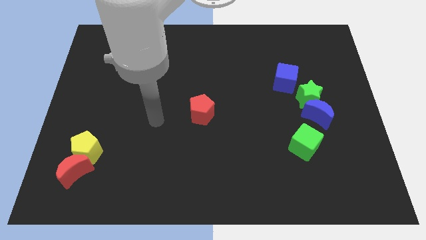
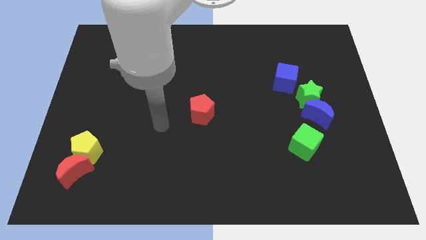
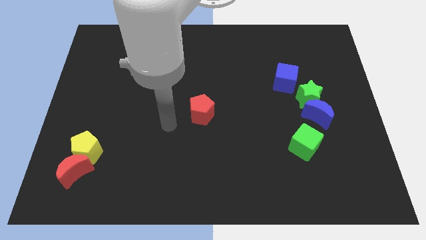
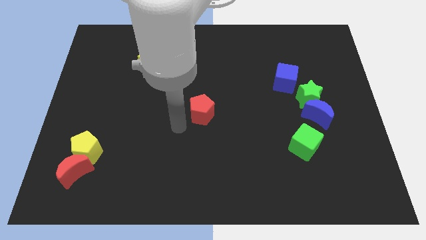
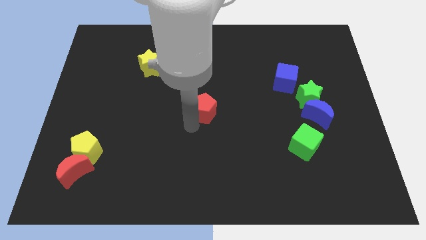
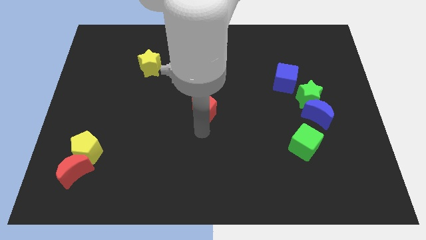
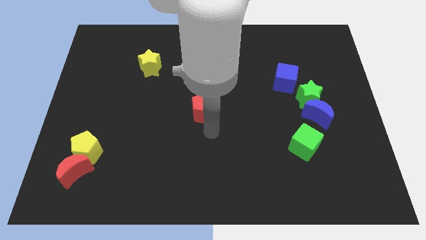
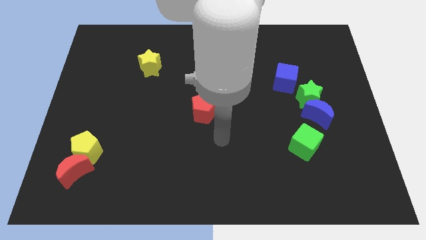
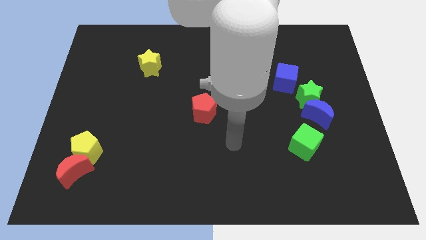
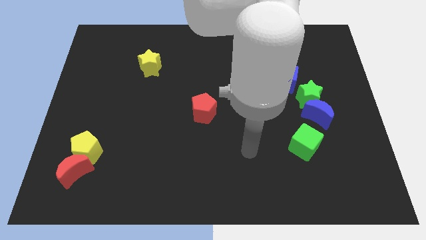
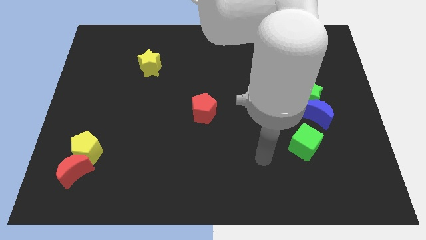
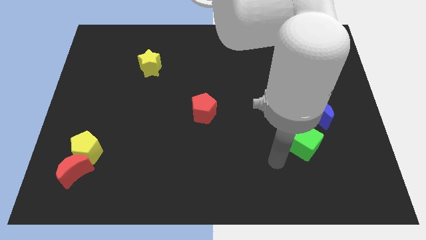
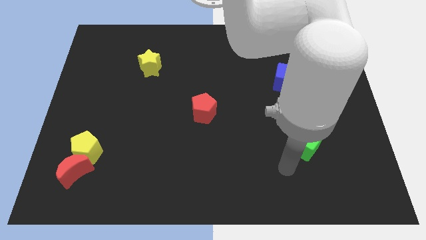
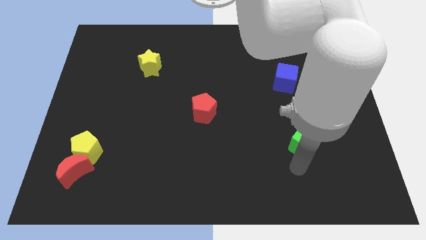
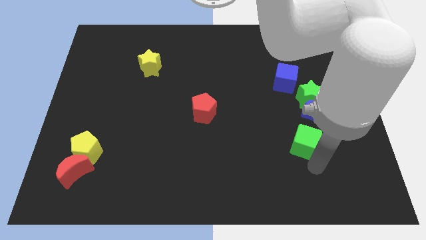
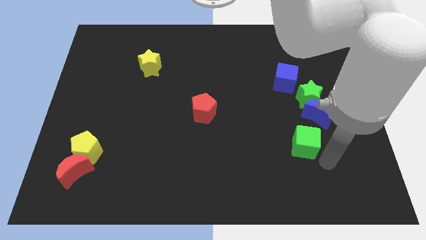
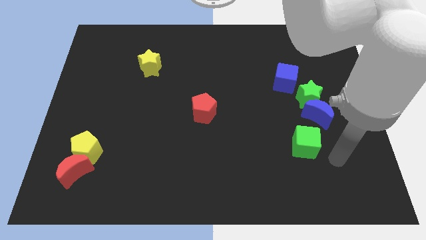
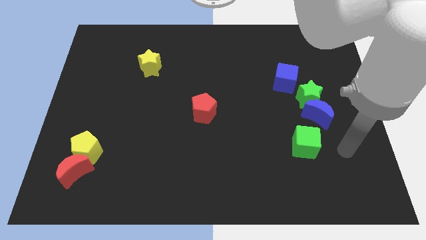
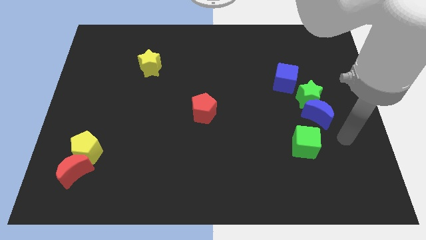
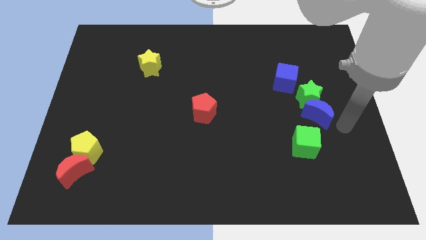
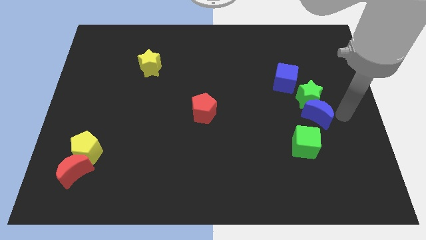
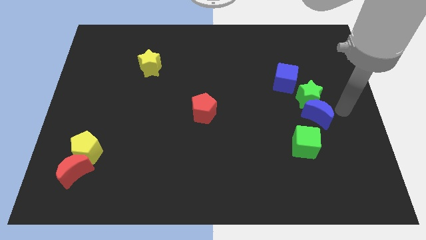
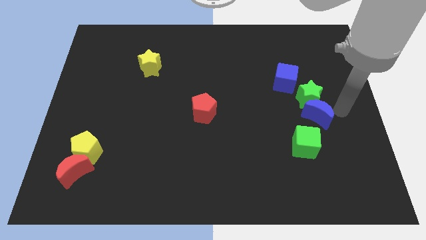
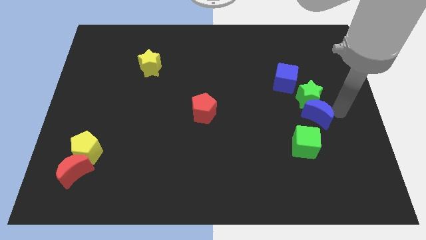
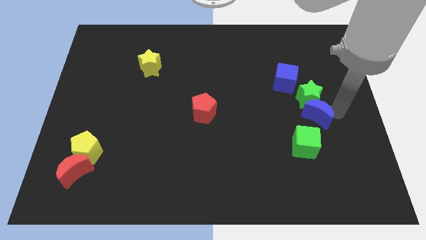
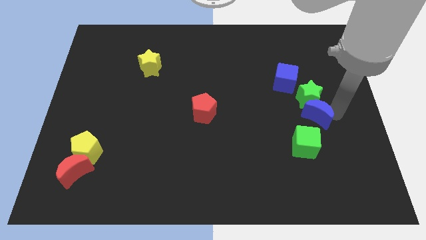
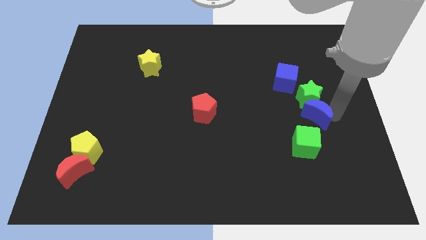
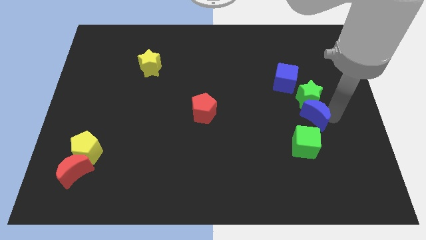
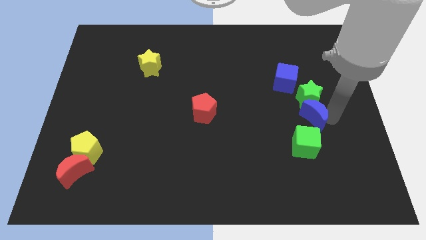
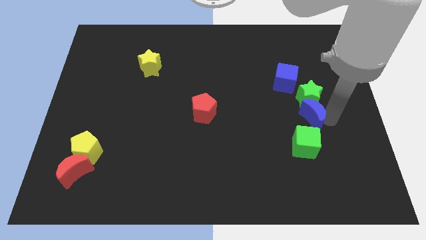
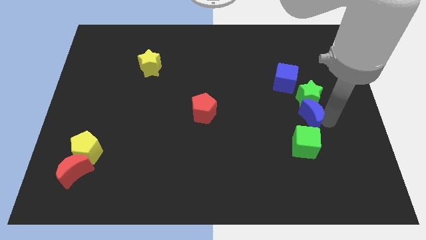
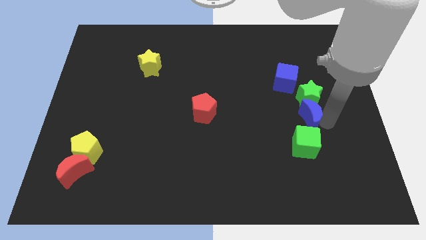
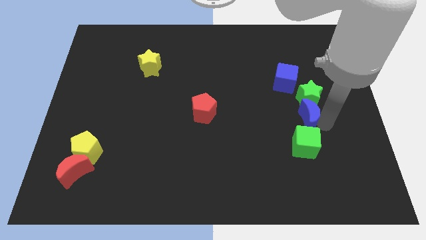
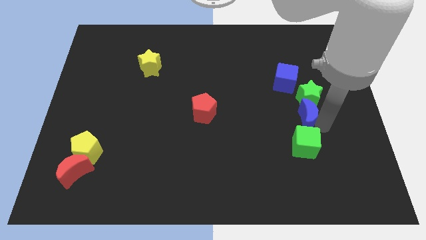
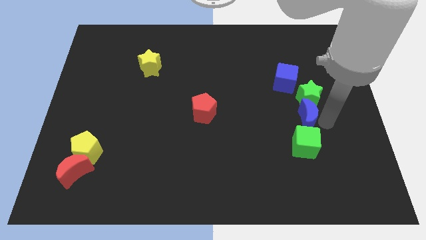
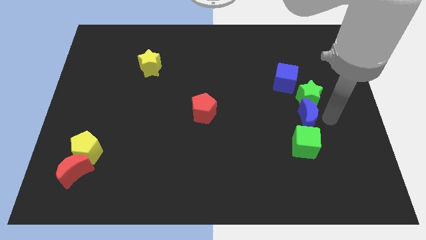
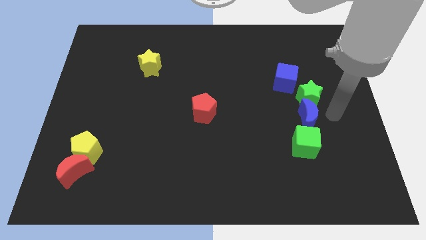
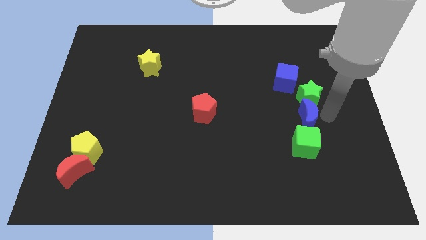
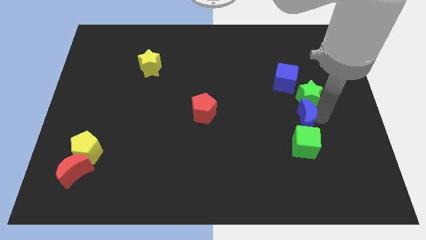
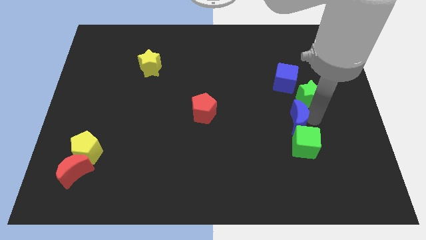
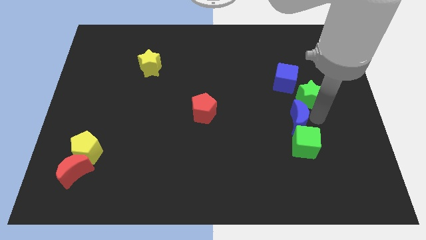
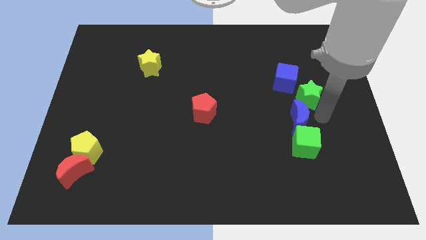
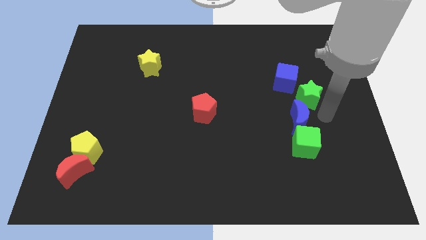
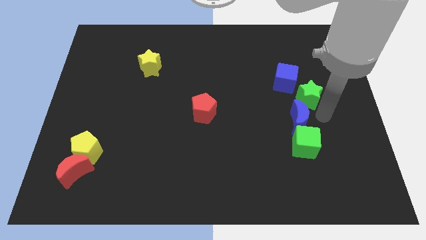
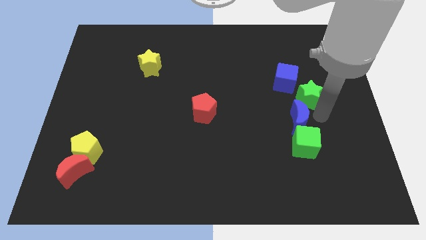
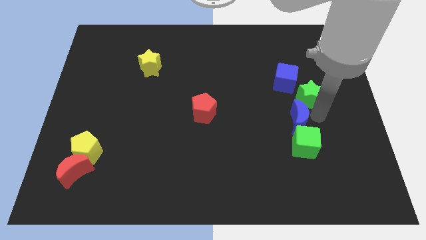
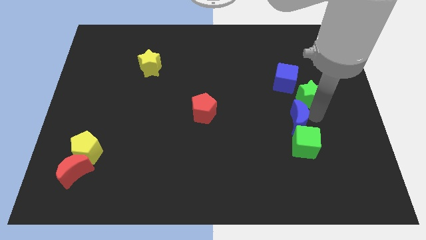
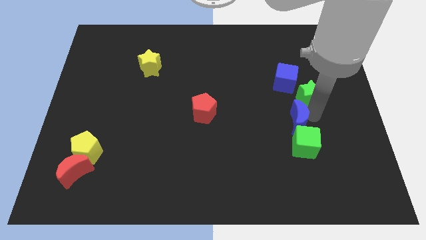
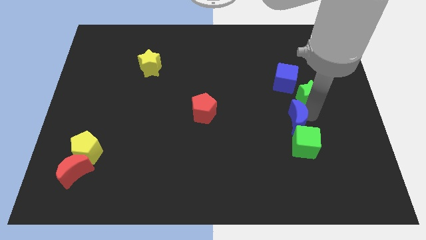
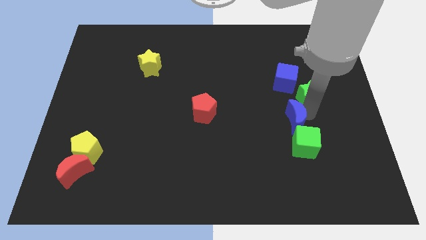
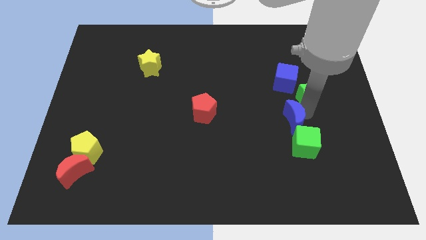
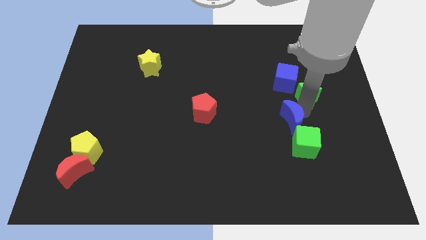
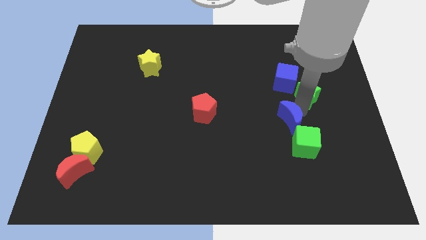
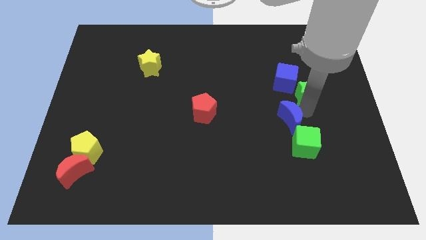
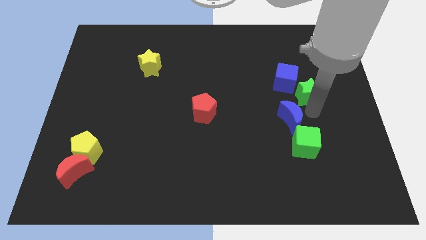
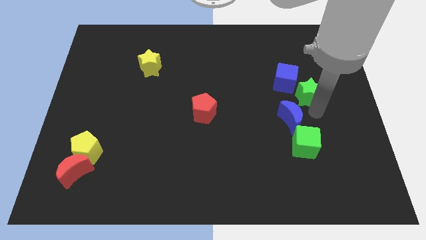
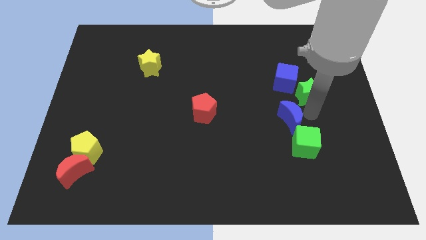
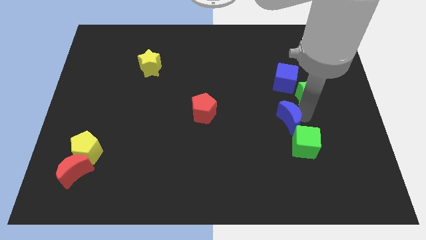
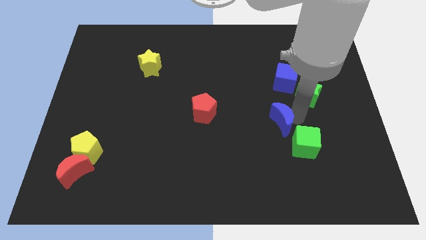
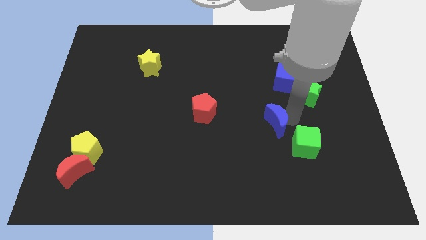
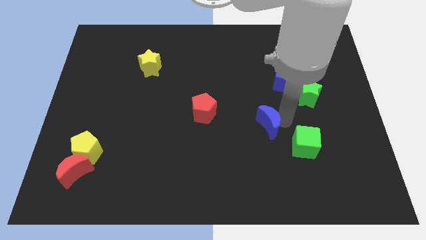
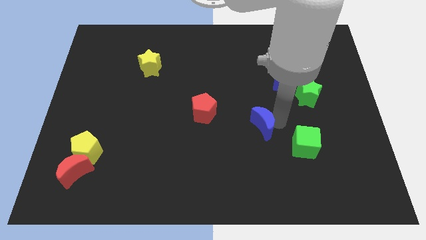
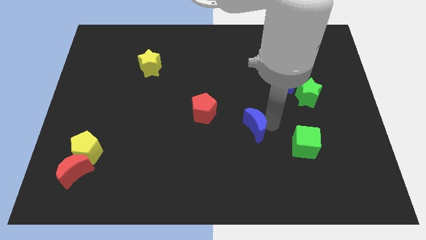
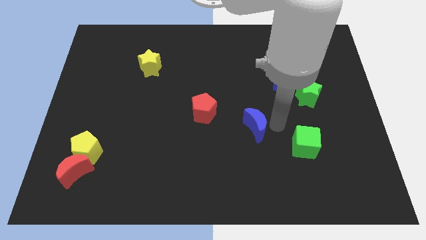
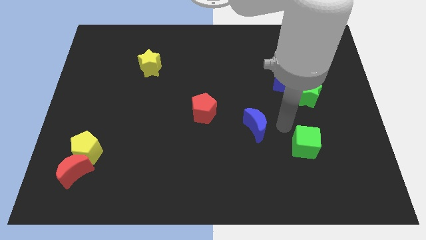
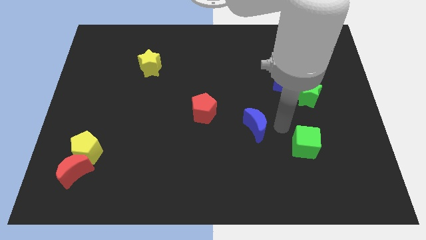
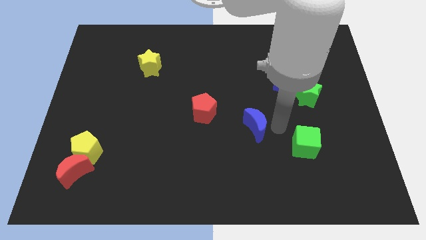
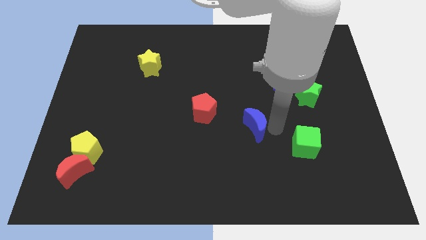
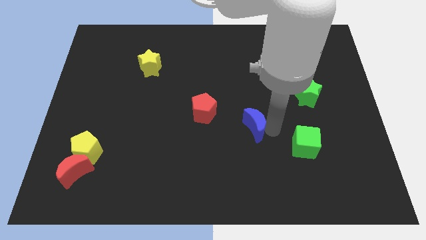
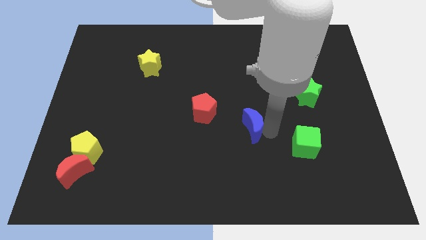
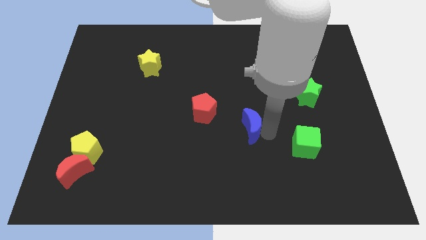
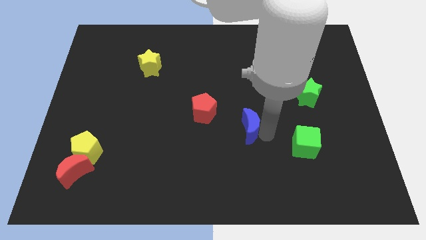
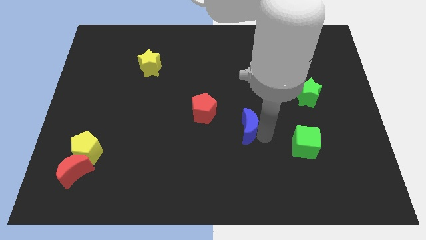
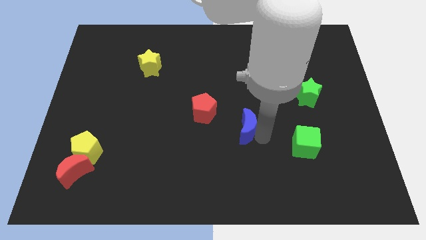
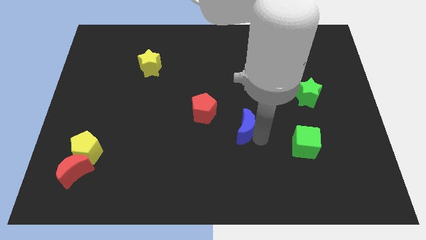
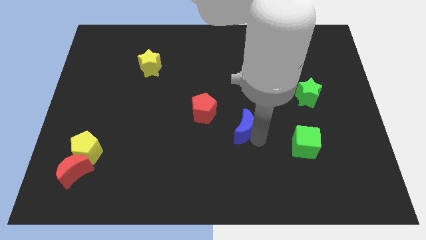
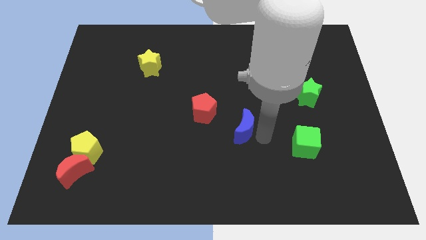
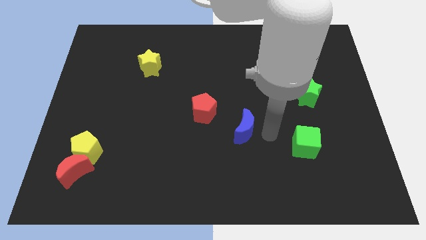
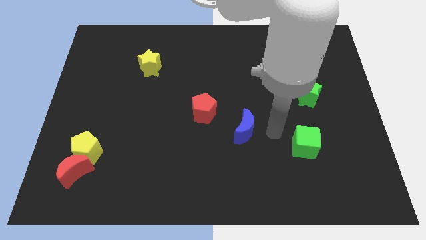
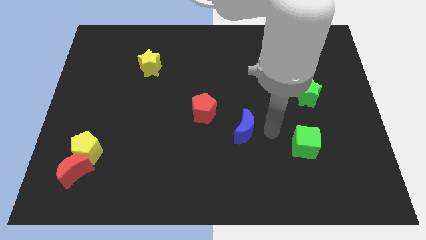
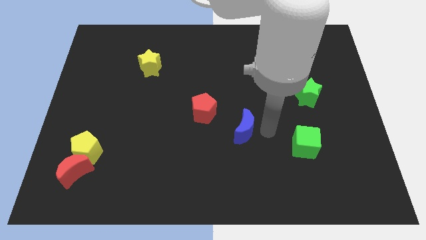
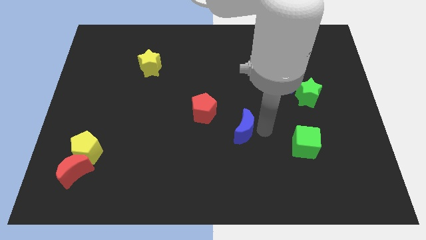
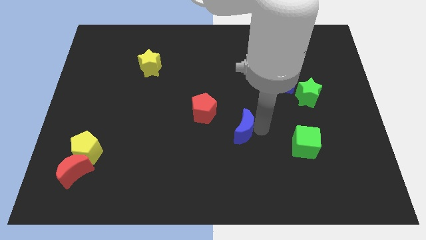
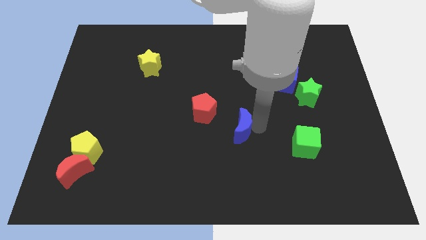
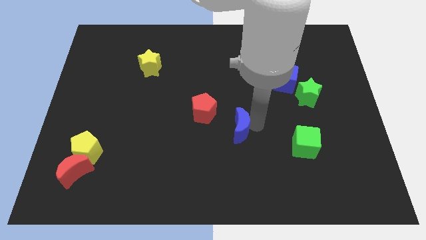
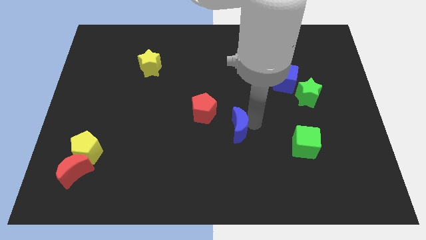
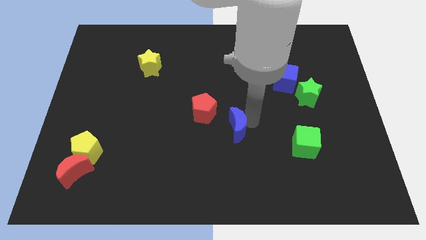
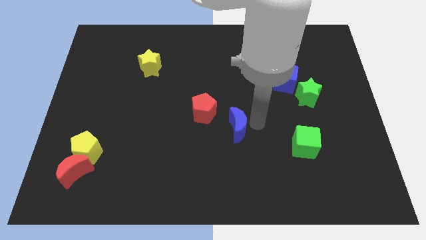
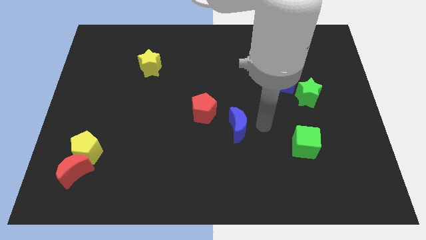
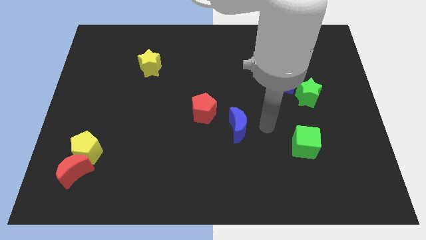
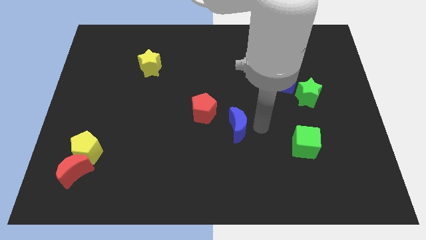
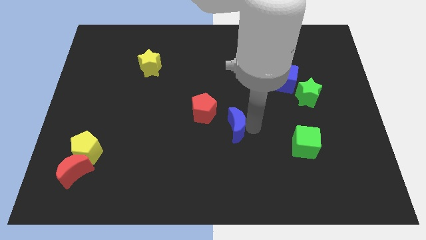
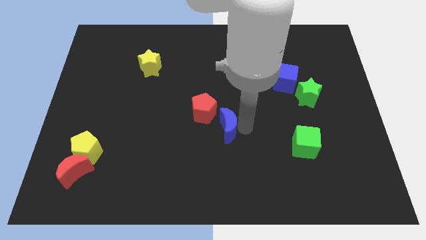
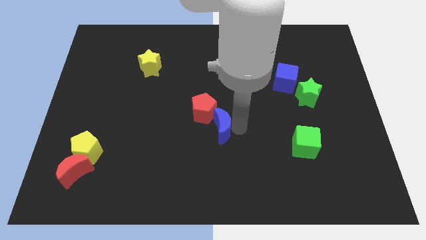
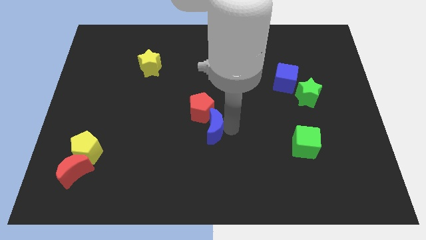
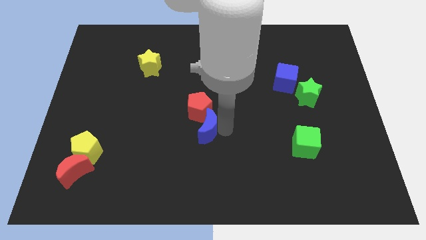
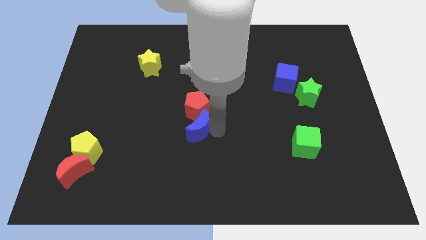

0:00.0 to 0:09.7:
move the blue moon to the bottom left side of the red pentagon
